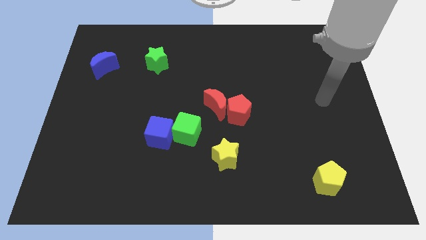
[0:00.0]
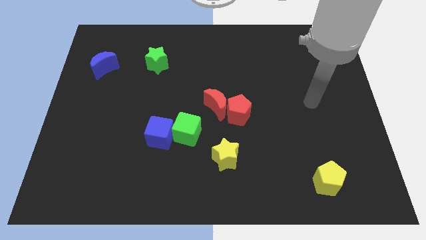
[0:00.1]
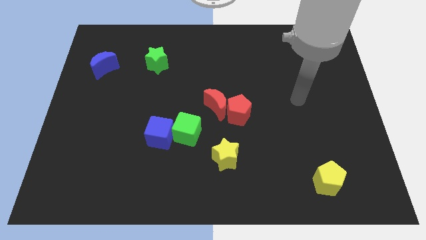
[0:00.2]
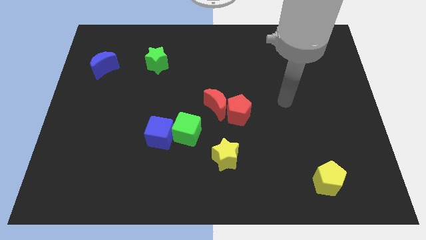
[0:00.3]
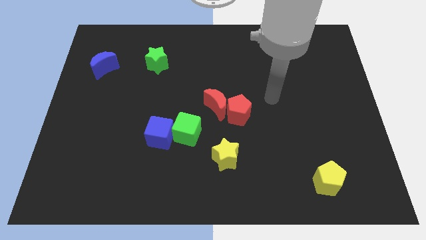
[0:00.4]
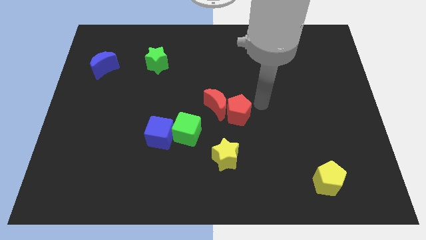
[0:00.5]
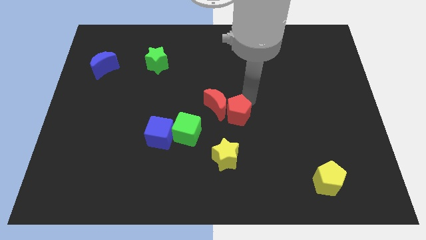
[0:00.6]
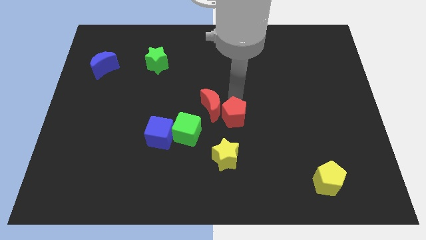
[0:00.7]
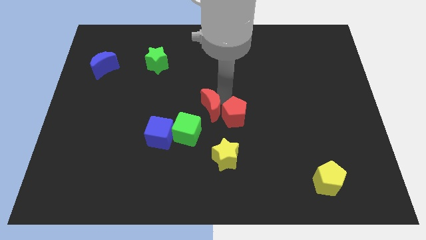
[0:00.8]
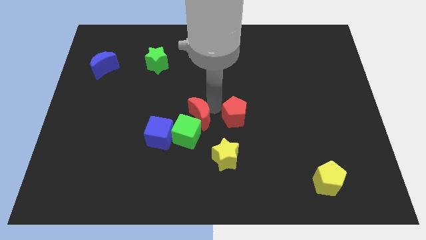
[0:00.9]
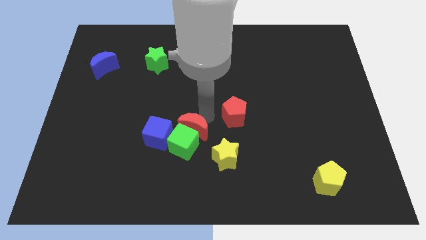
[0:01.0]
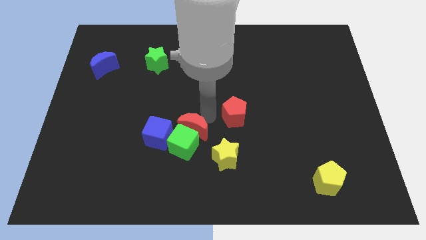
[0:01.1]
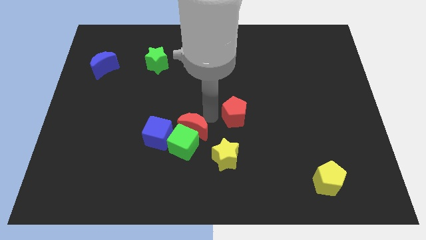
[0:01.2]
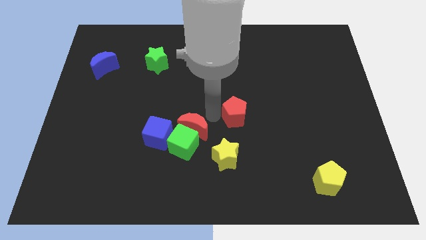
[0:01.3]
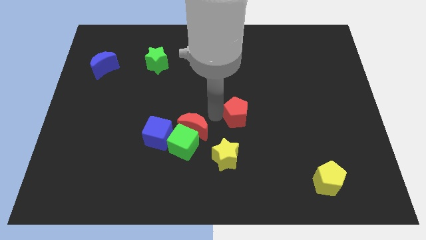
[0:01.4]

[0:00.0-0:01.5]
move the red pentagon away from the red moon

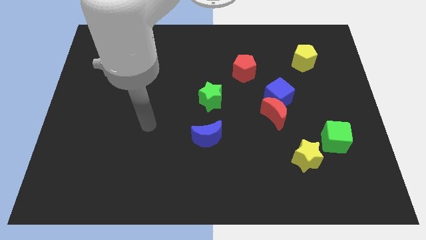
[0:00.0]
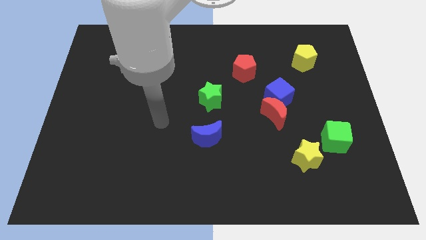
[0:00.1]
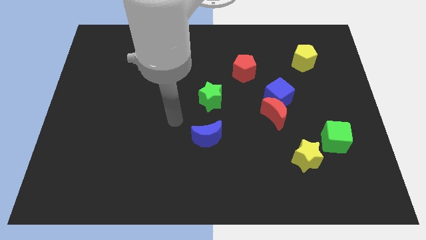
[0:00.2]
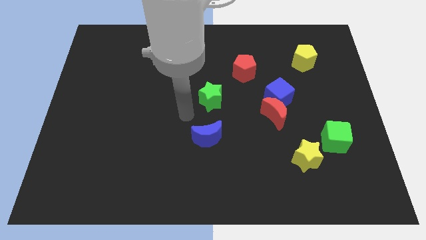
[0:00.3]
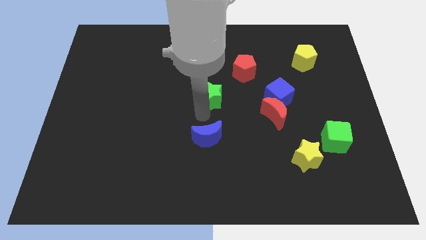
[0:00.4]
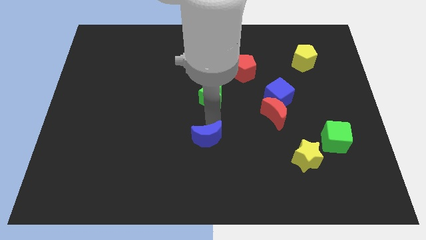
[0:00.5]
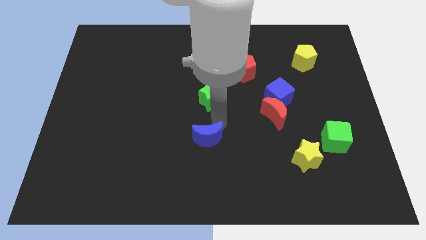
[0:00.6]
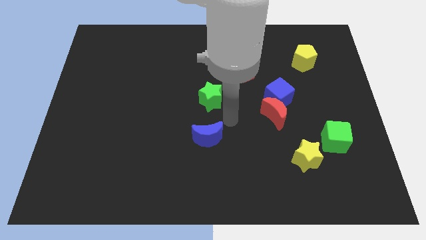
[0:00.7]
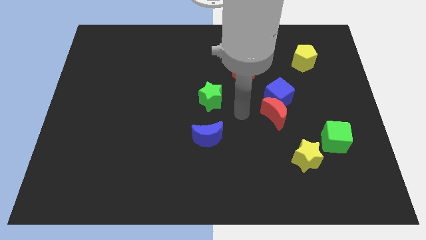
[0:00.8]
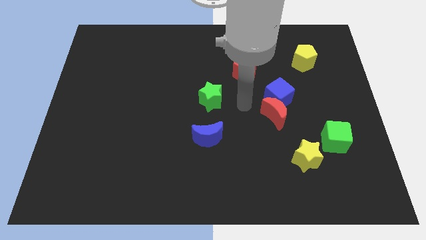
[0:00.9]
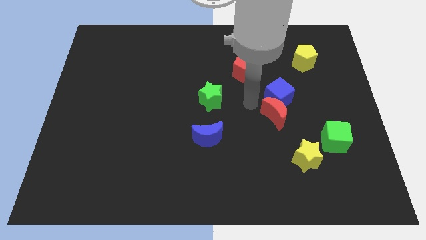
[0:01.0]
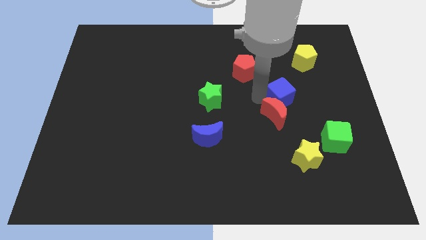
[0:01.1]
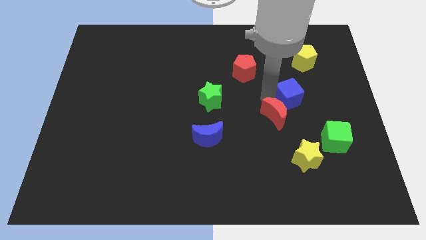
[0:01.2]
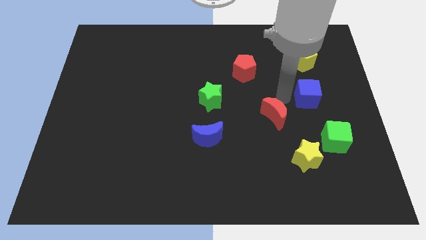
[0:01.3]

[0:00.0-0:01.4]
pull the red moon apart from the blue cube

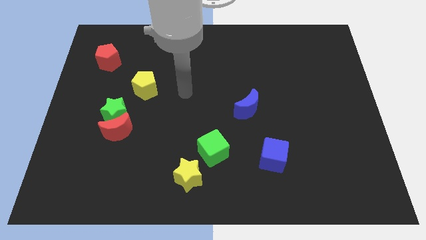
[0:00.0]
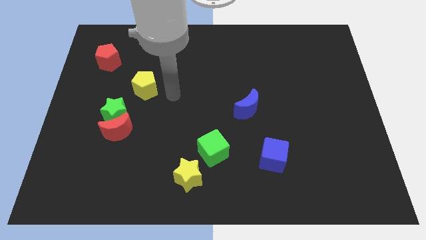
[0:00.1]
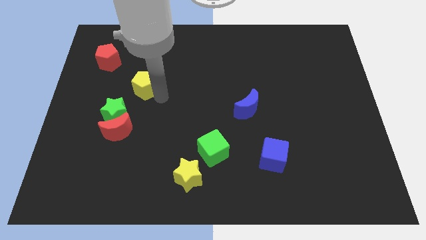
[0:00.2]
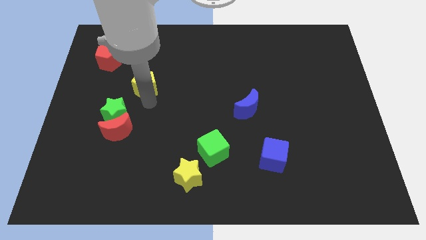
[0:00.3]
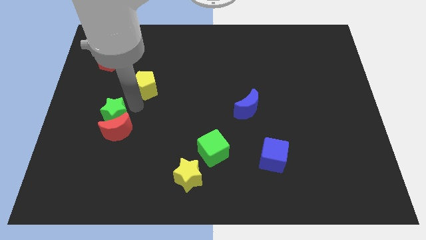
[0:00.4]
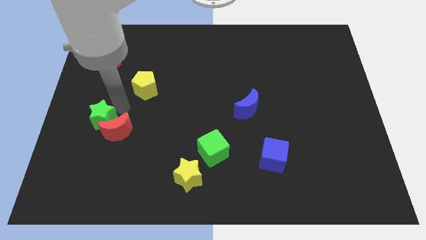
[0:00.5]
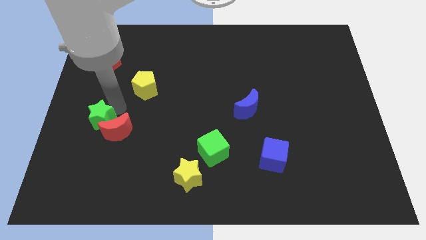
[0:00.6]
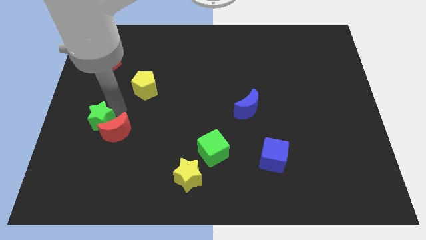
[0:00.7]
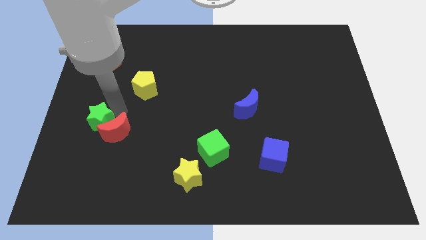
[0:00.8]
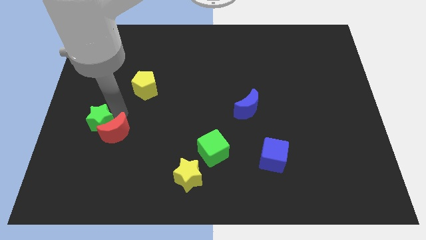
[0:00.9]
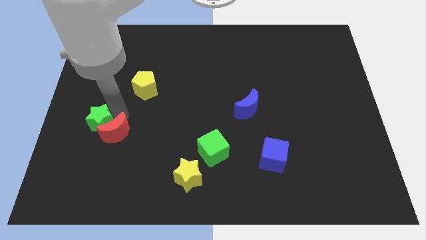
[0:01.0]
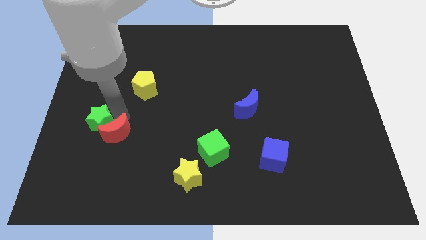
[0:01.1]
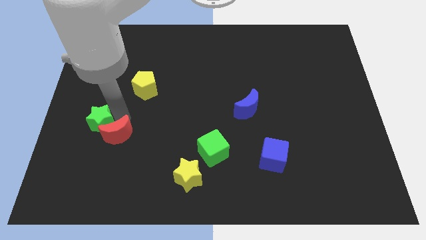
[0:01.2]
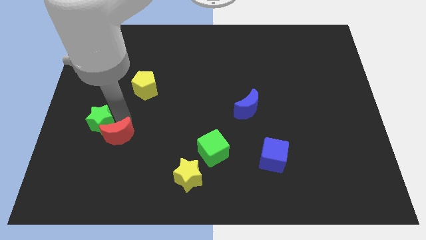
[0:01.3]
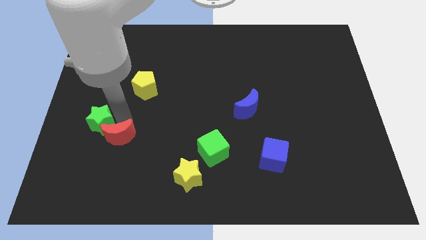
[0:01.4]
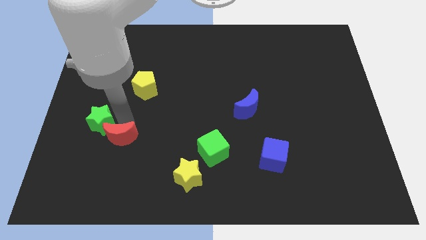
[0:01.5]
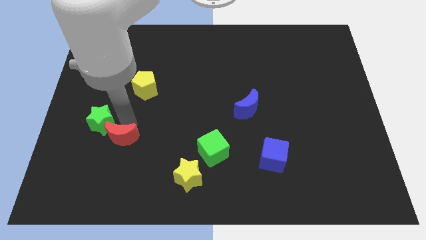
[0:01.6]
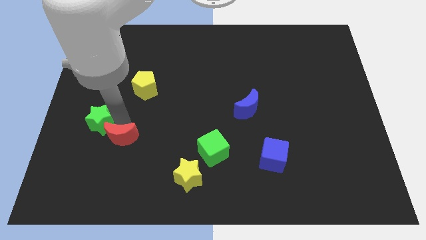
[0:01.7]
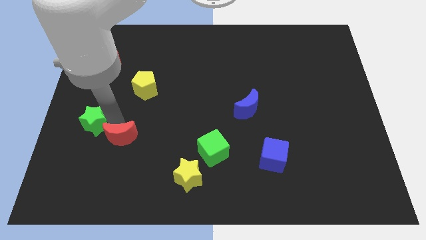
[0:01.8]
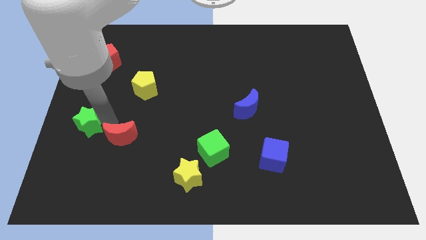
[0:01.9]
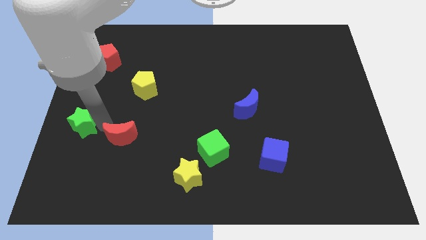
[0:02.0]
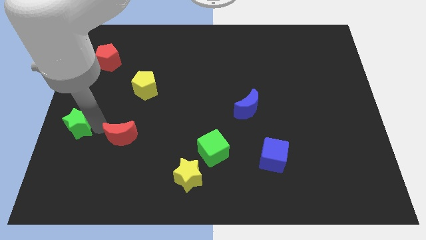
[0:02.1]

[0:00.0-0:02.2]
separate the red moon from the green star

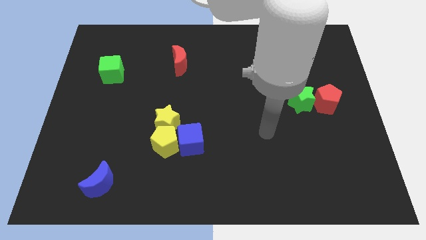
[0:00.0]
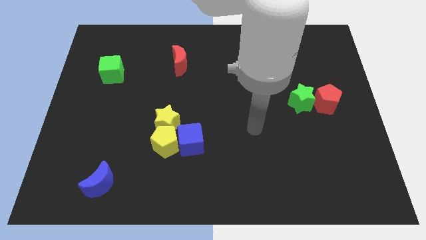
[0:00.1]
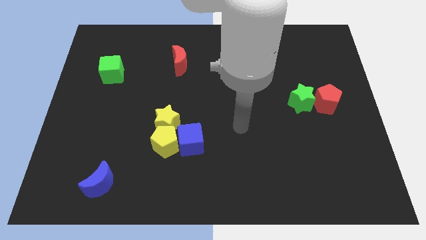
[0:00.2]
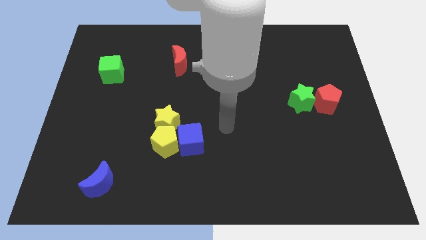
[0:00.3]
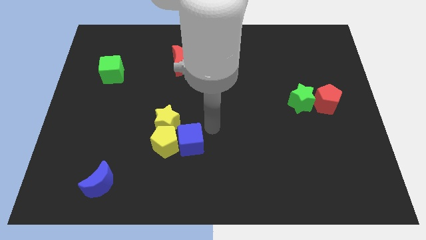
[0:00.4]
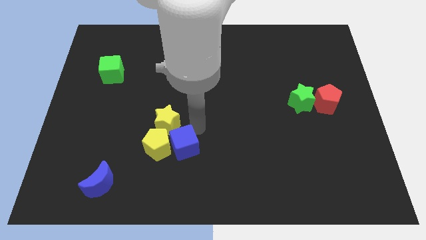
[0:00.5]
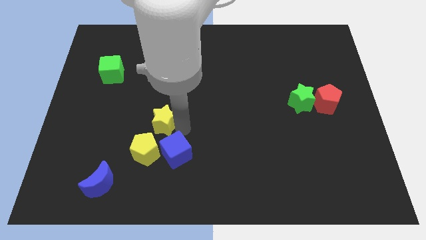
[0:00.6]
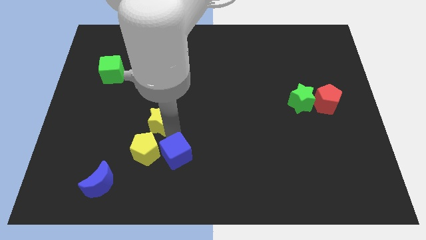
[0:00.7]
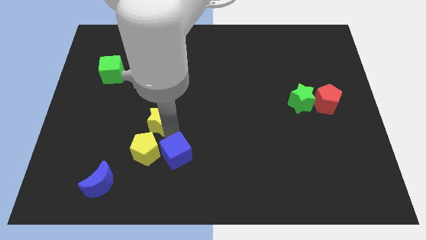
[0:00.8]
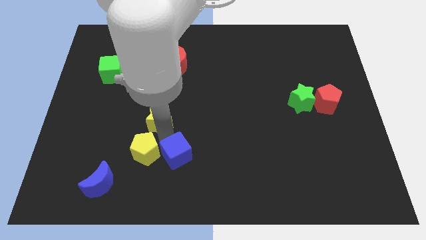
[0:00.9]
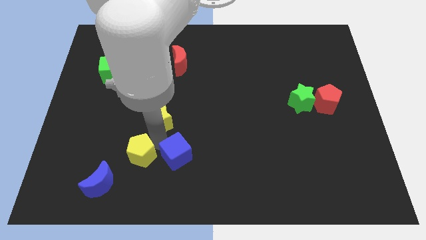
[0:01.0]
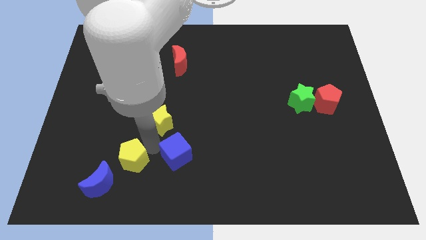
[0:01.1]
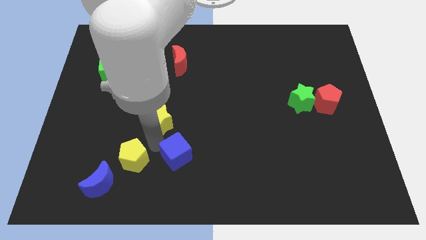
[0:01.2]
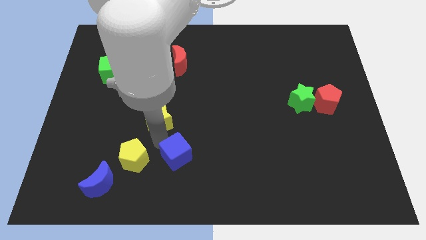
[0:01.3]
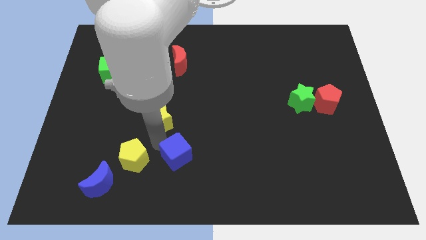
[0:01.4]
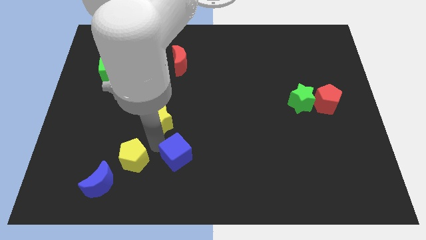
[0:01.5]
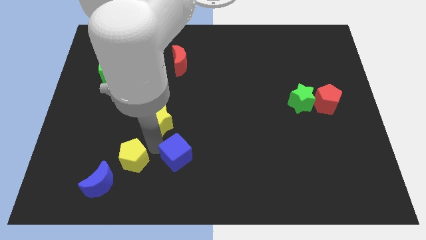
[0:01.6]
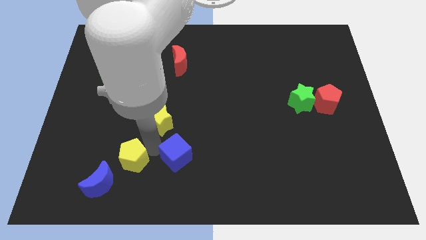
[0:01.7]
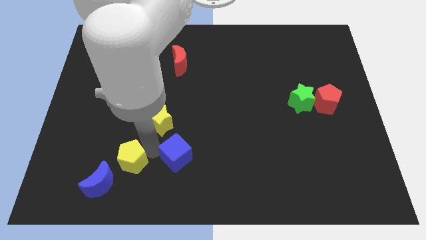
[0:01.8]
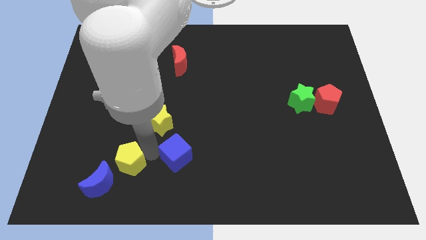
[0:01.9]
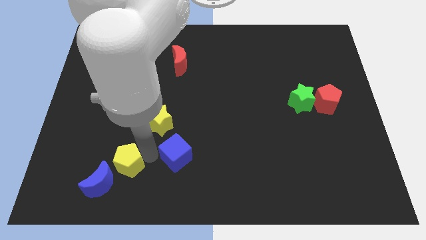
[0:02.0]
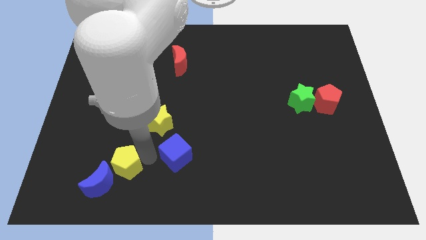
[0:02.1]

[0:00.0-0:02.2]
move the yellow pentagon away from the blue cube and yellow star

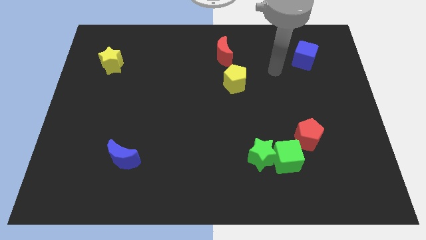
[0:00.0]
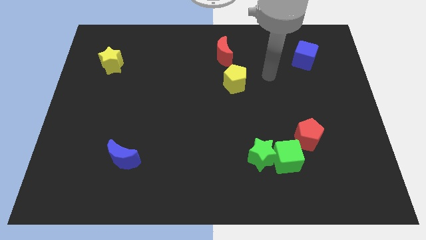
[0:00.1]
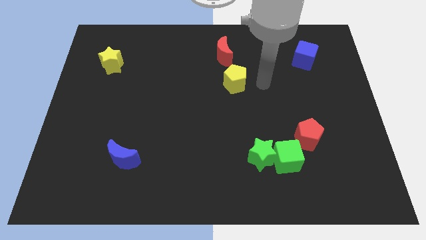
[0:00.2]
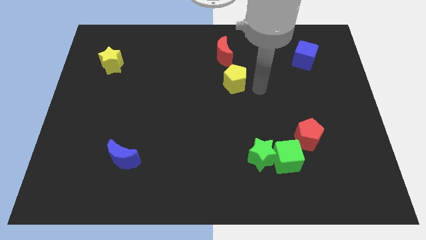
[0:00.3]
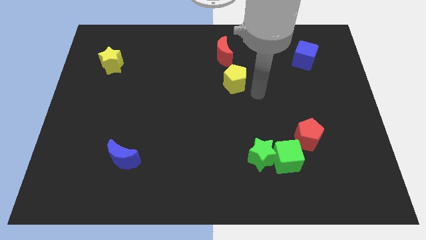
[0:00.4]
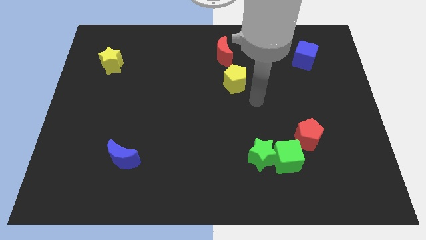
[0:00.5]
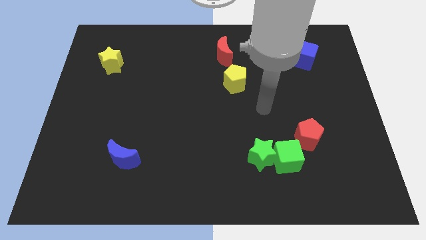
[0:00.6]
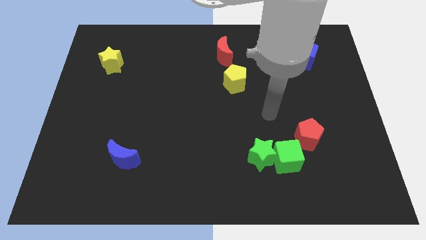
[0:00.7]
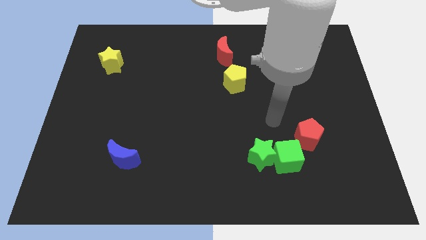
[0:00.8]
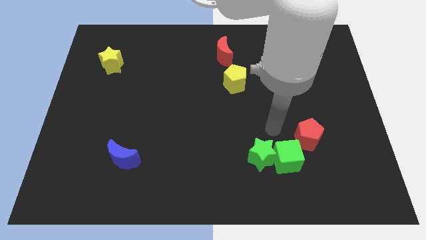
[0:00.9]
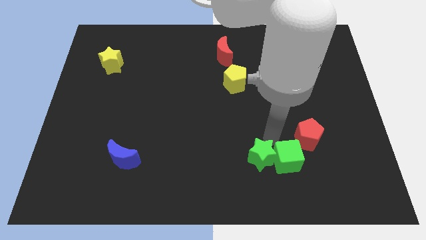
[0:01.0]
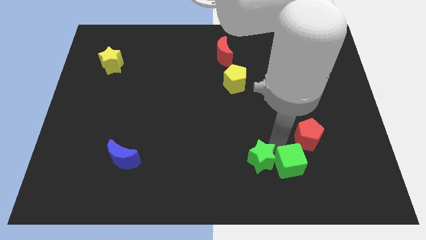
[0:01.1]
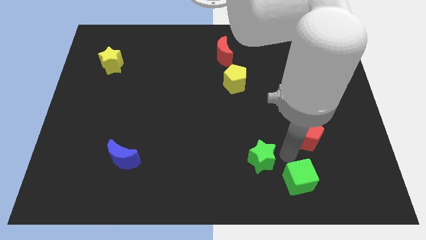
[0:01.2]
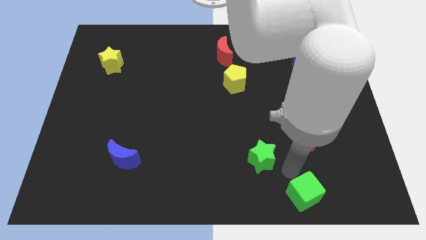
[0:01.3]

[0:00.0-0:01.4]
pull the green star apart from the green cube

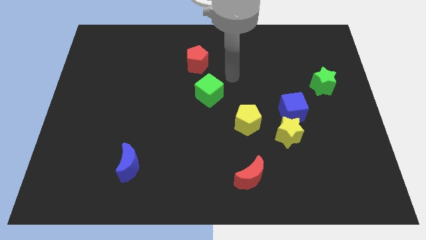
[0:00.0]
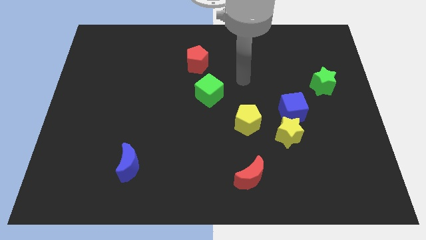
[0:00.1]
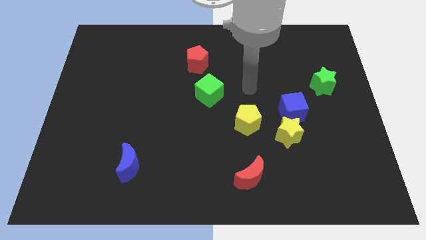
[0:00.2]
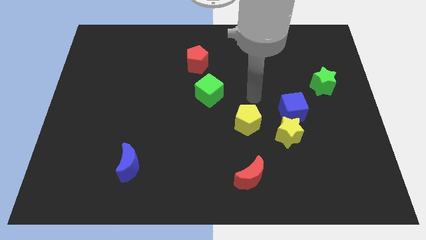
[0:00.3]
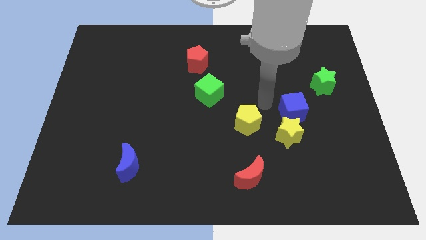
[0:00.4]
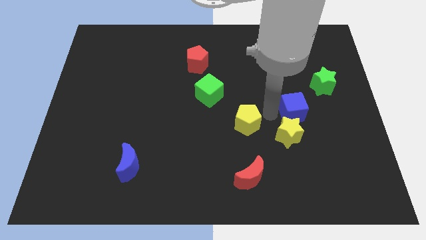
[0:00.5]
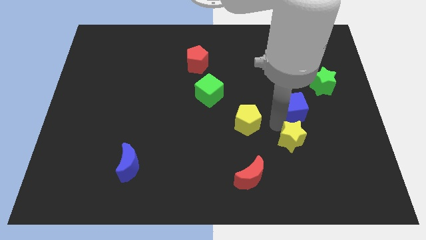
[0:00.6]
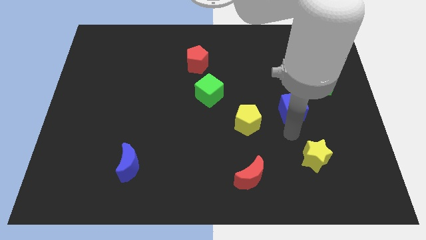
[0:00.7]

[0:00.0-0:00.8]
separate the blue cube from the yellow star
